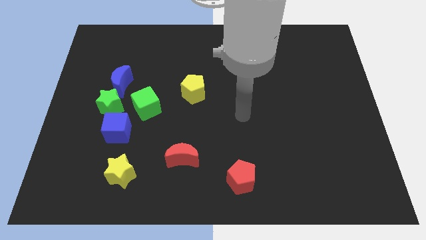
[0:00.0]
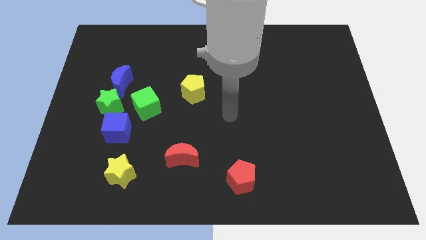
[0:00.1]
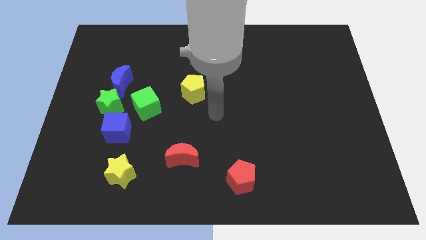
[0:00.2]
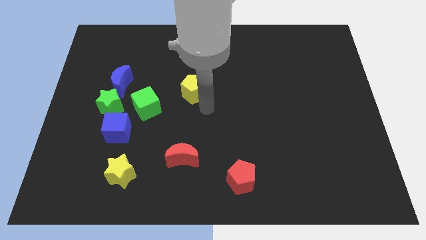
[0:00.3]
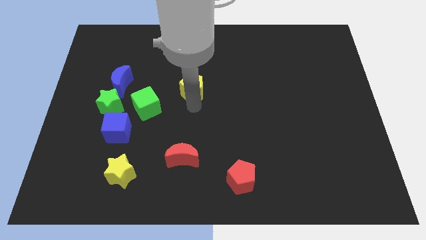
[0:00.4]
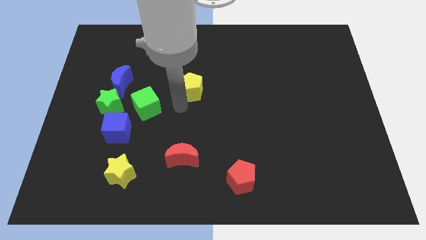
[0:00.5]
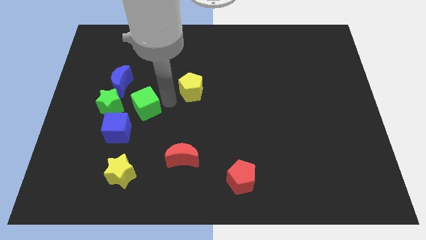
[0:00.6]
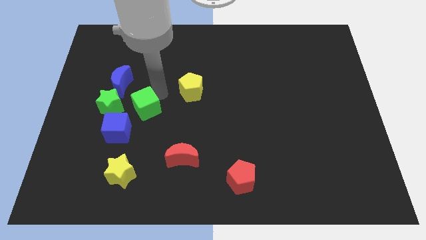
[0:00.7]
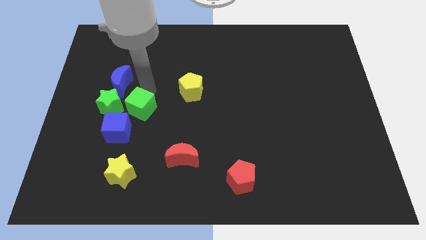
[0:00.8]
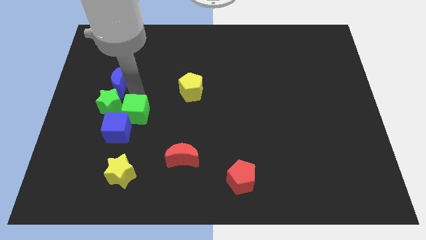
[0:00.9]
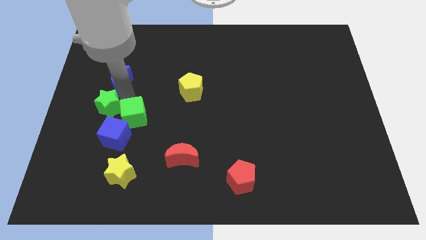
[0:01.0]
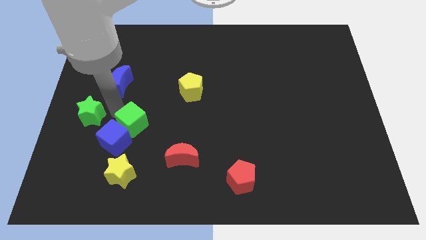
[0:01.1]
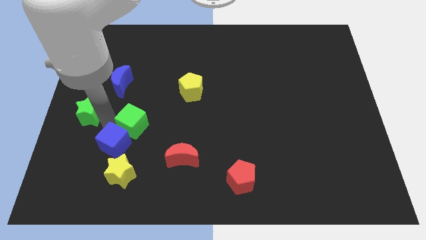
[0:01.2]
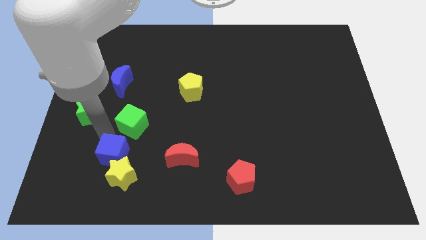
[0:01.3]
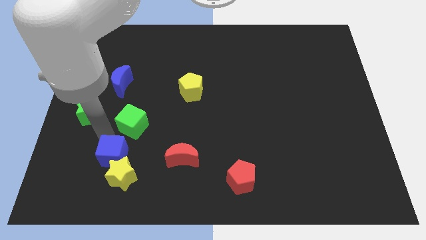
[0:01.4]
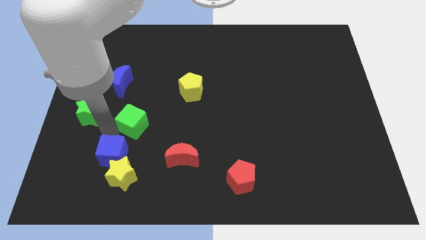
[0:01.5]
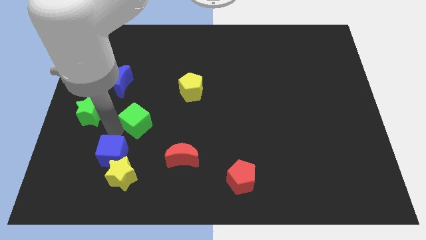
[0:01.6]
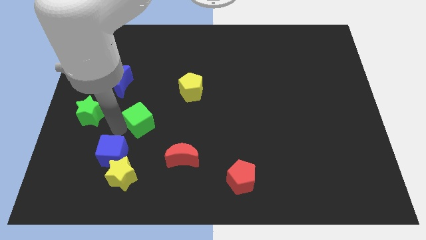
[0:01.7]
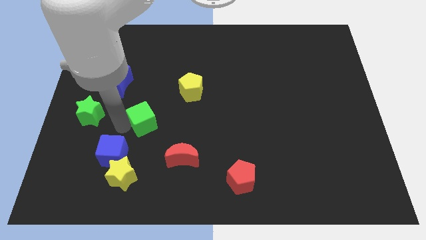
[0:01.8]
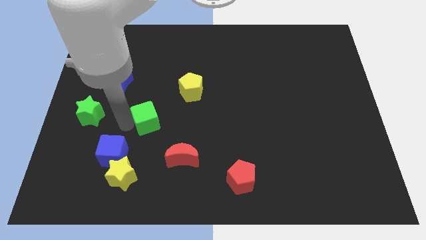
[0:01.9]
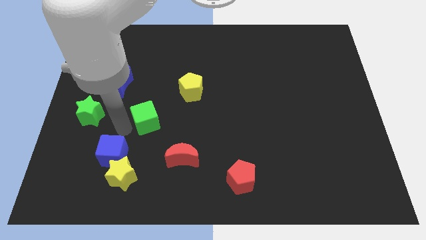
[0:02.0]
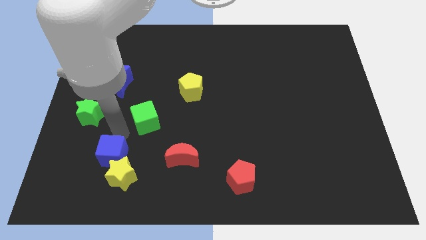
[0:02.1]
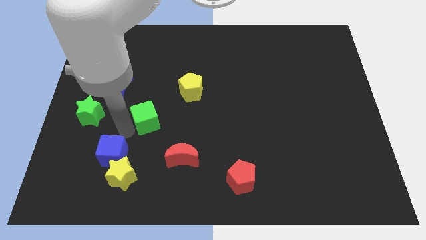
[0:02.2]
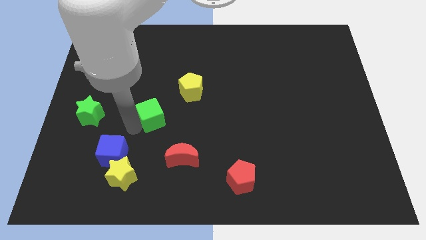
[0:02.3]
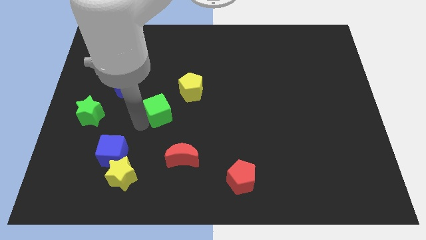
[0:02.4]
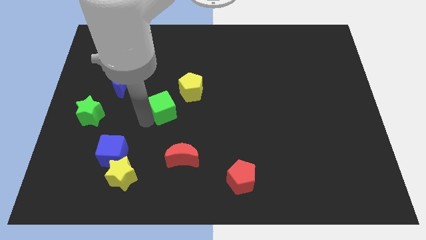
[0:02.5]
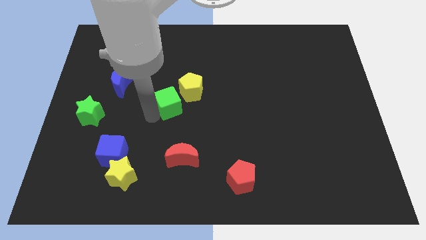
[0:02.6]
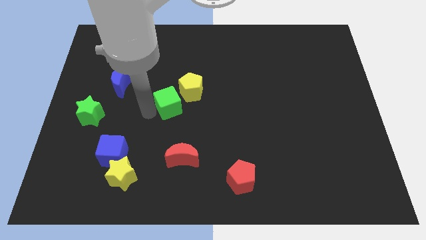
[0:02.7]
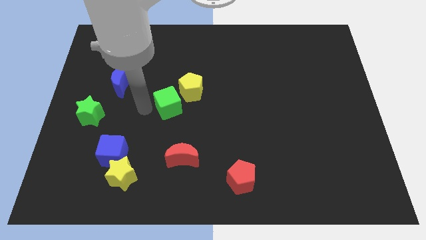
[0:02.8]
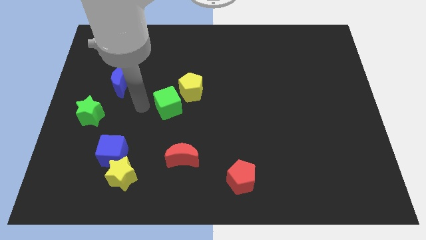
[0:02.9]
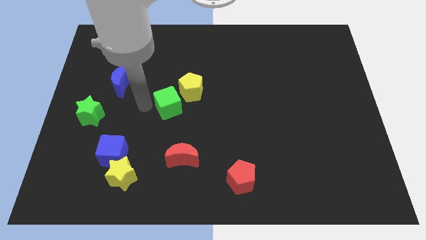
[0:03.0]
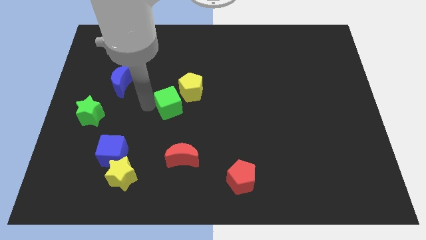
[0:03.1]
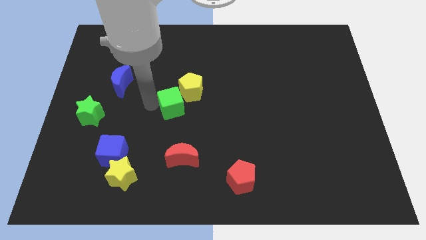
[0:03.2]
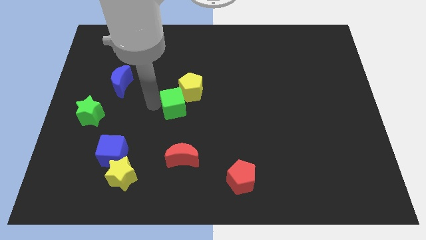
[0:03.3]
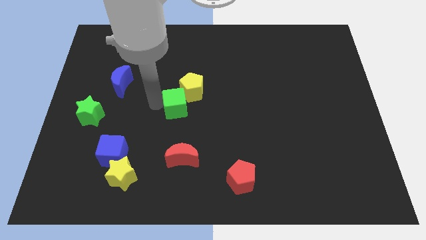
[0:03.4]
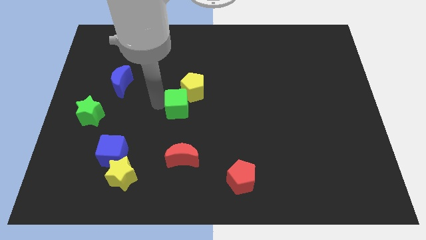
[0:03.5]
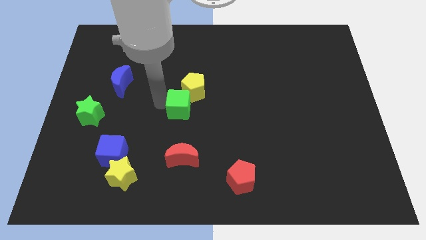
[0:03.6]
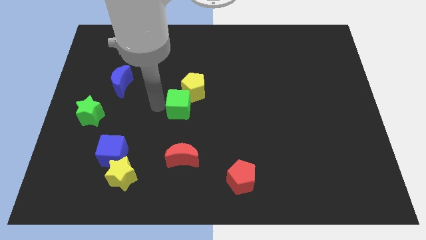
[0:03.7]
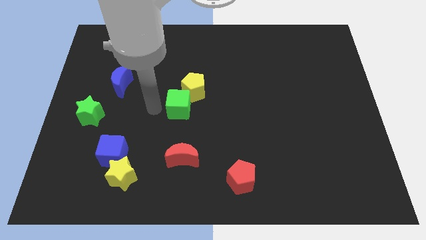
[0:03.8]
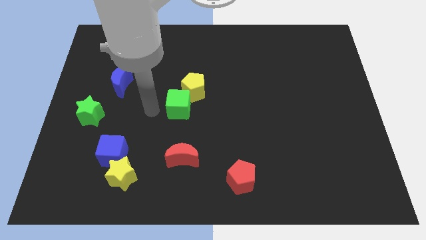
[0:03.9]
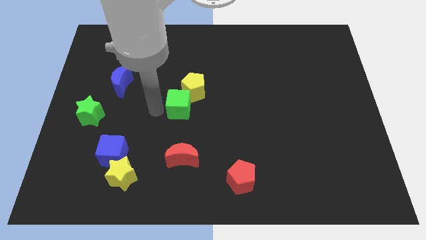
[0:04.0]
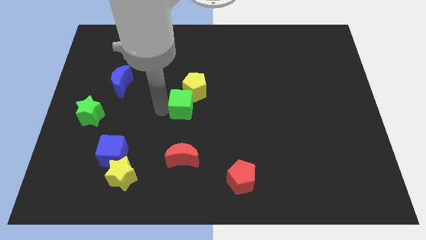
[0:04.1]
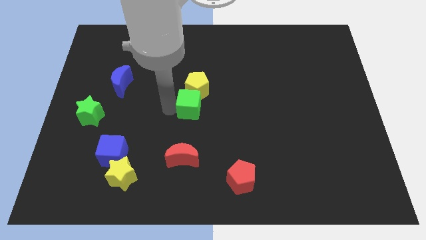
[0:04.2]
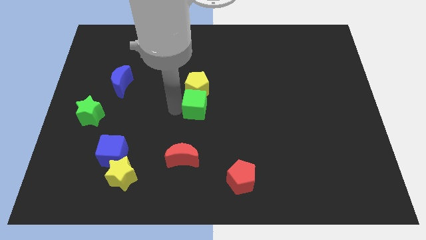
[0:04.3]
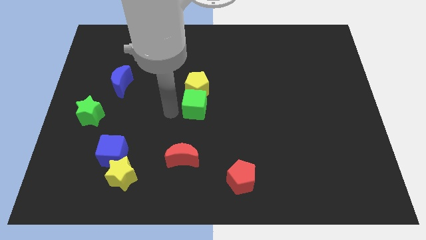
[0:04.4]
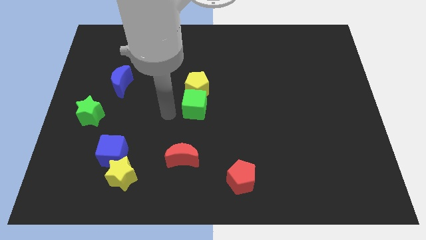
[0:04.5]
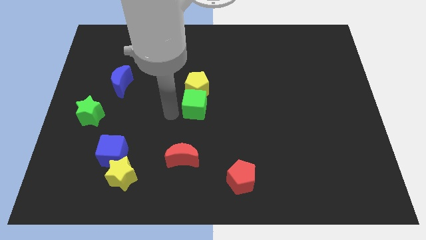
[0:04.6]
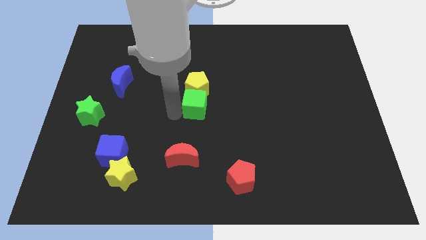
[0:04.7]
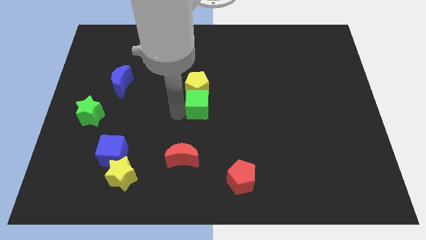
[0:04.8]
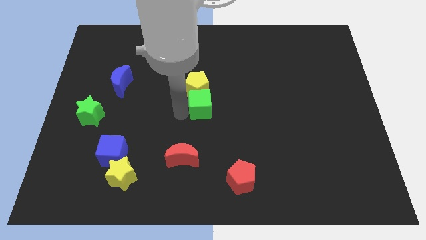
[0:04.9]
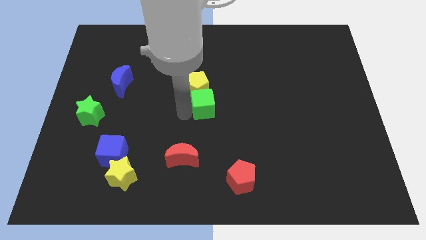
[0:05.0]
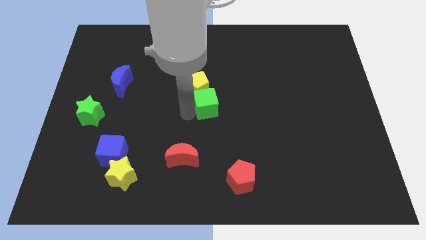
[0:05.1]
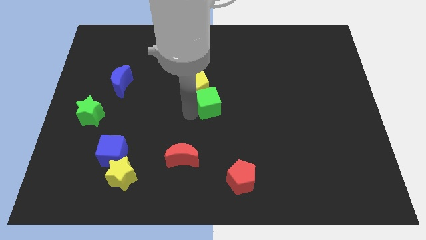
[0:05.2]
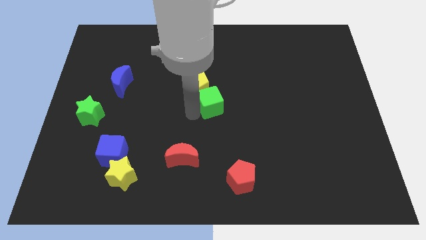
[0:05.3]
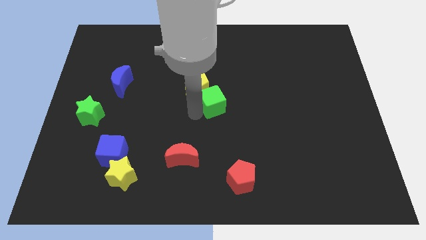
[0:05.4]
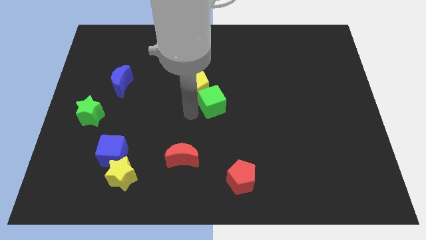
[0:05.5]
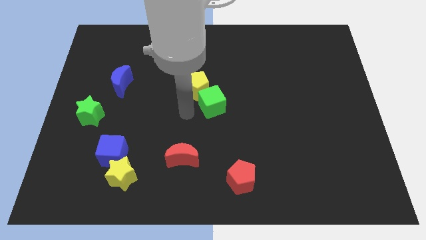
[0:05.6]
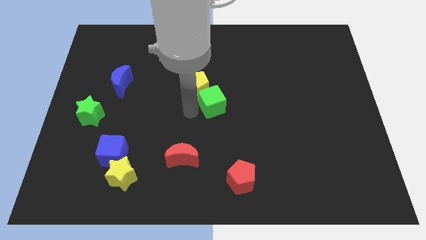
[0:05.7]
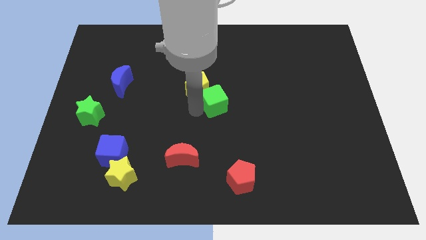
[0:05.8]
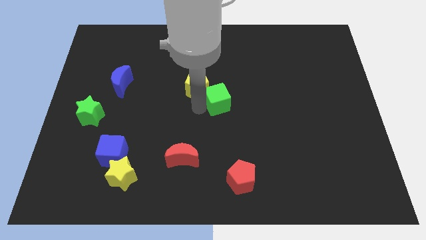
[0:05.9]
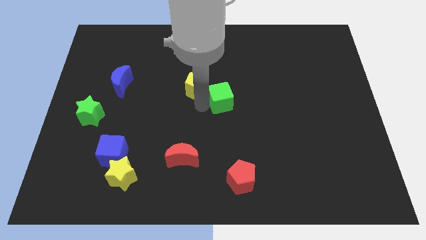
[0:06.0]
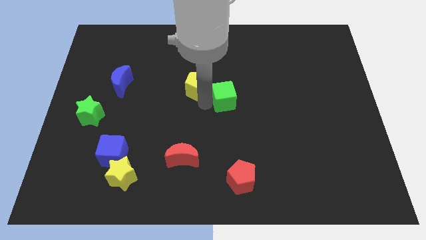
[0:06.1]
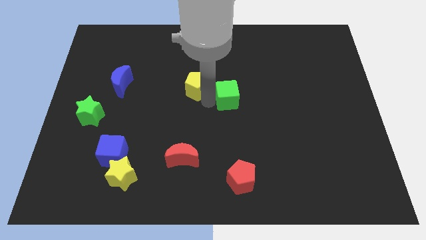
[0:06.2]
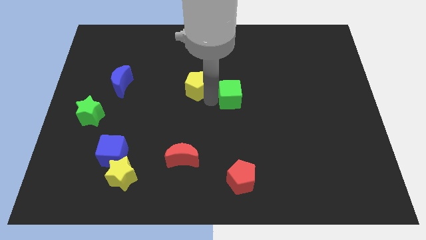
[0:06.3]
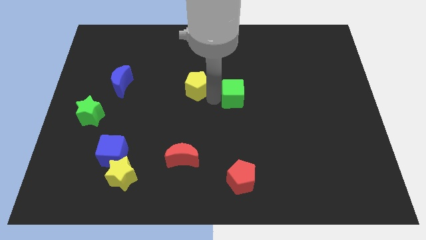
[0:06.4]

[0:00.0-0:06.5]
push the green cube right

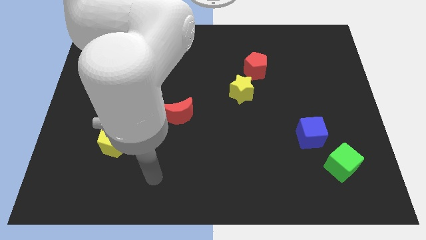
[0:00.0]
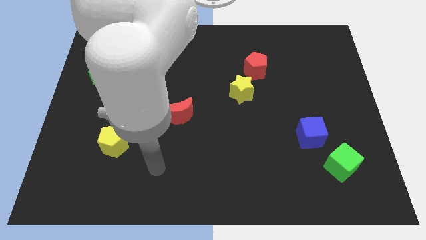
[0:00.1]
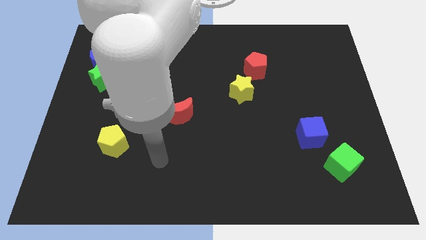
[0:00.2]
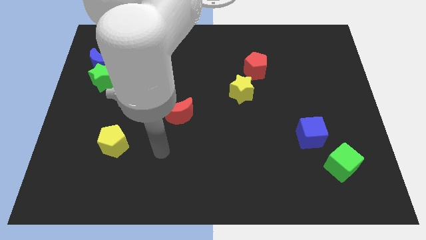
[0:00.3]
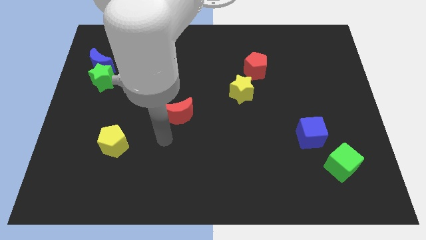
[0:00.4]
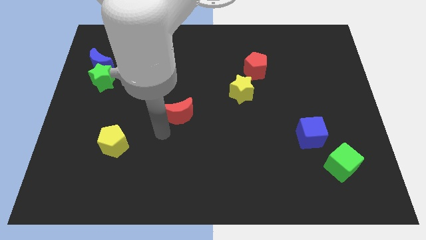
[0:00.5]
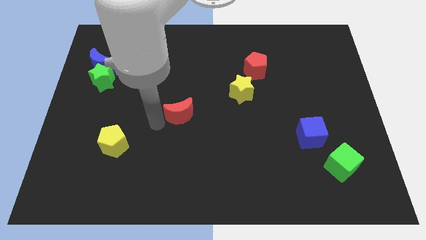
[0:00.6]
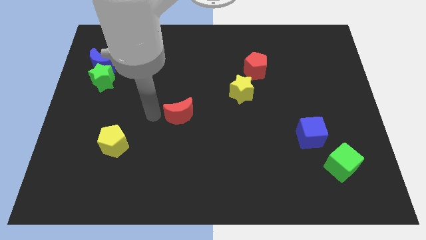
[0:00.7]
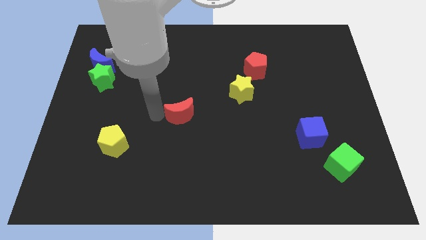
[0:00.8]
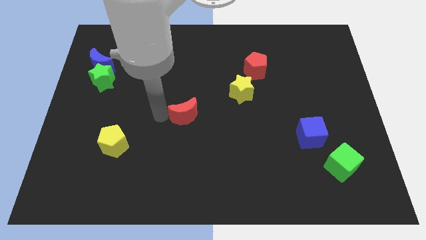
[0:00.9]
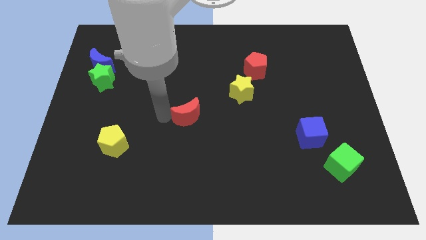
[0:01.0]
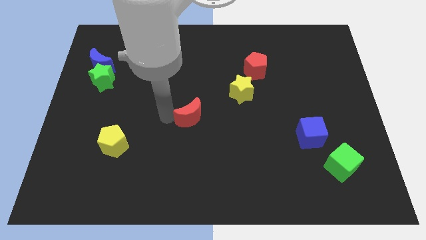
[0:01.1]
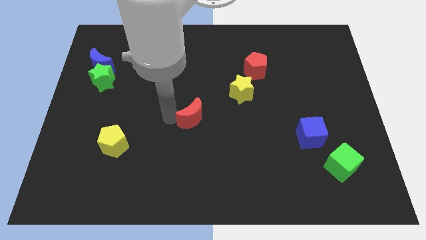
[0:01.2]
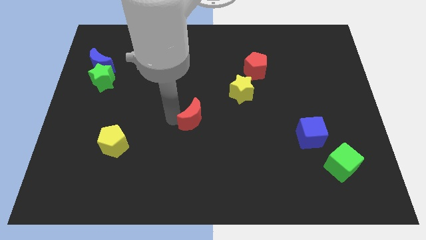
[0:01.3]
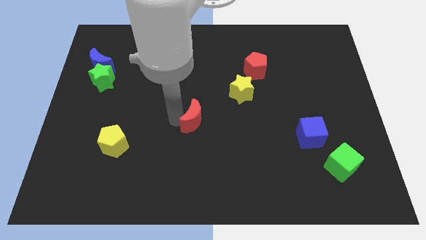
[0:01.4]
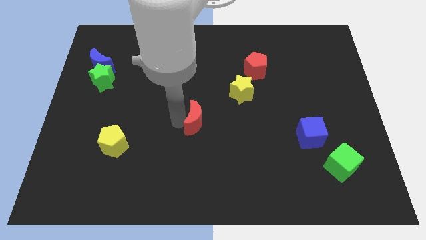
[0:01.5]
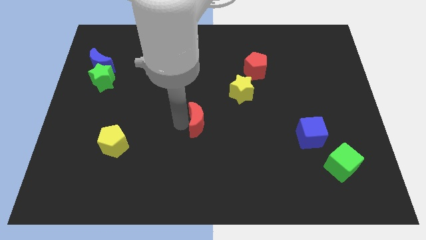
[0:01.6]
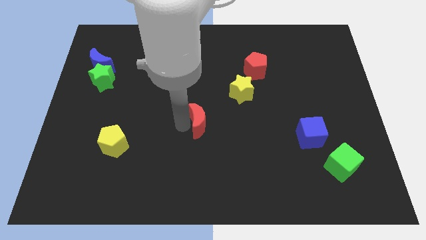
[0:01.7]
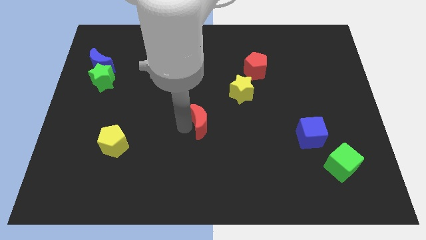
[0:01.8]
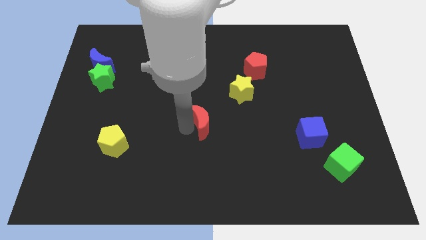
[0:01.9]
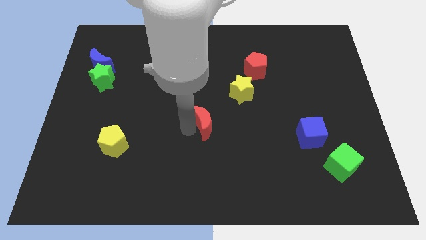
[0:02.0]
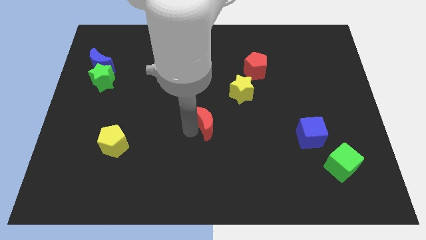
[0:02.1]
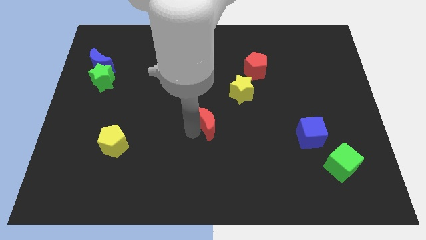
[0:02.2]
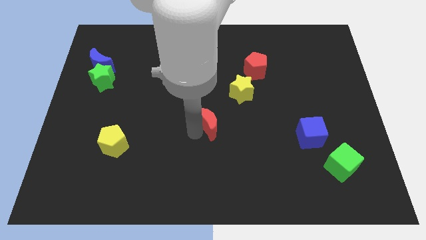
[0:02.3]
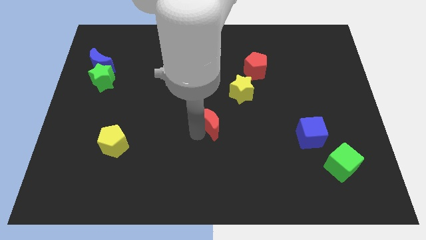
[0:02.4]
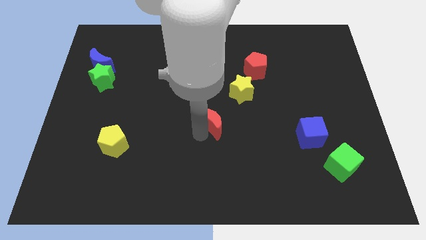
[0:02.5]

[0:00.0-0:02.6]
slightly slide the red moon right
